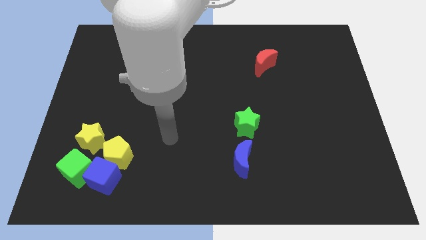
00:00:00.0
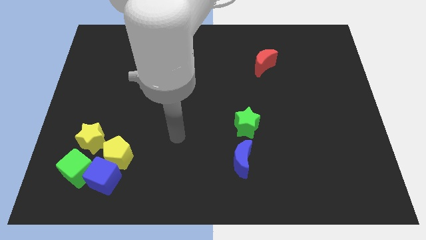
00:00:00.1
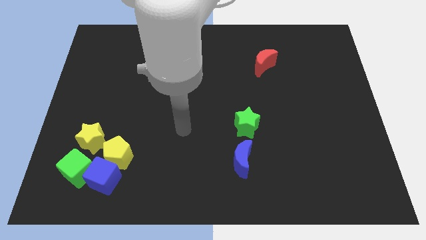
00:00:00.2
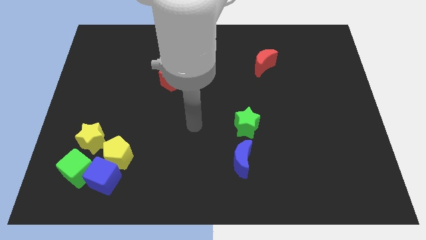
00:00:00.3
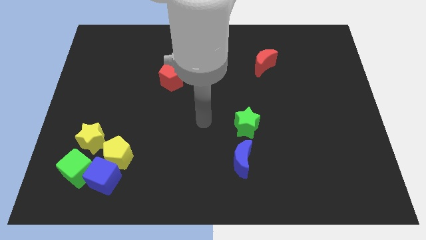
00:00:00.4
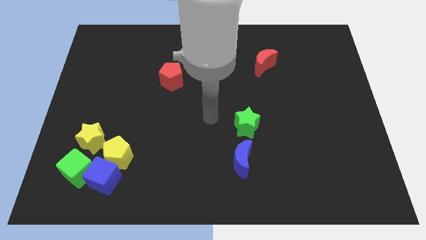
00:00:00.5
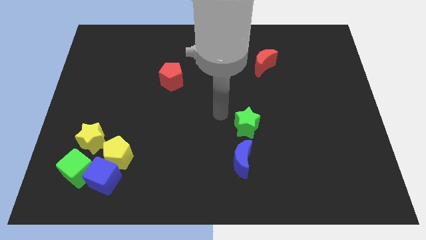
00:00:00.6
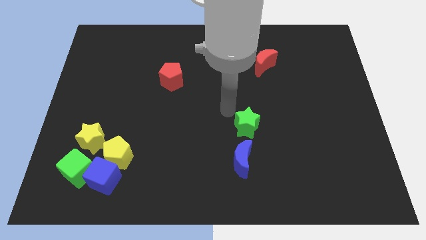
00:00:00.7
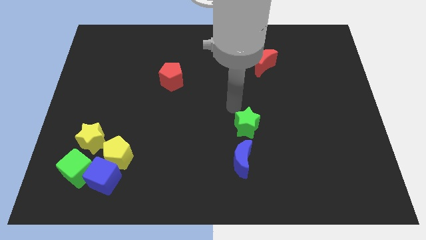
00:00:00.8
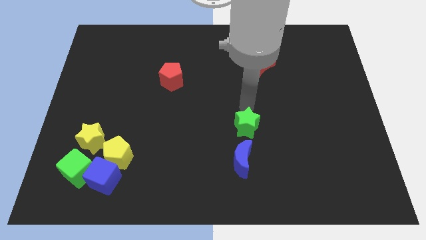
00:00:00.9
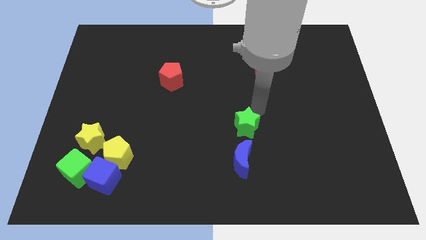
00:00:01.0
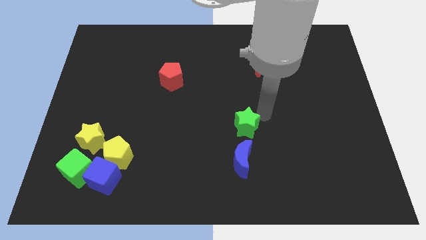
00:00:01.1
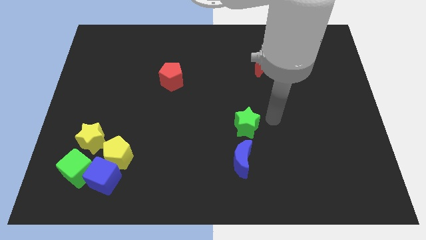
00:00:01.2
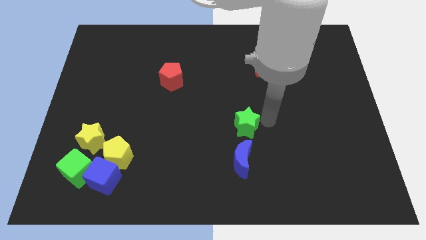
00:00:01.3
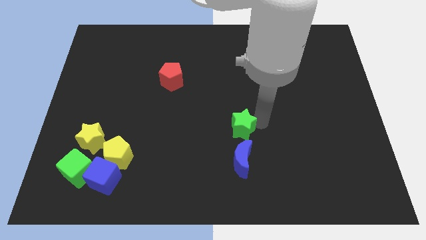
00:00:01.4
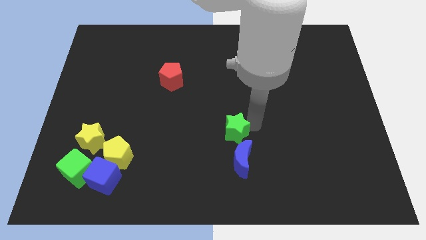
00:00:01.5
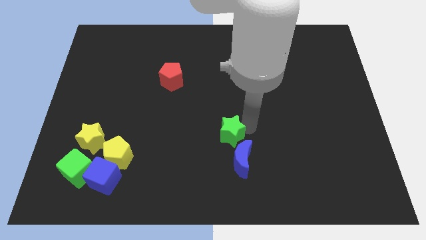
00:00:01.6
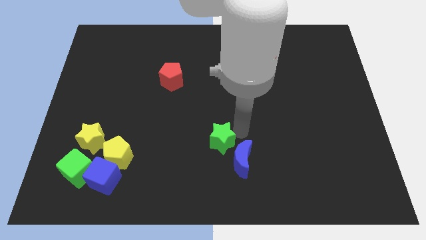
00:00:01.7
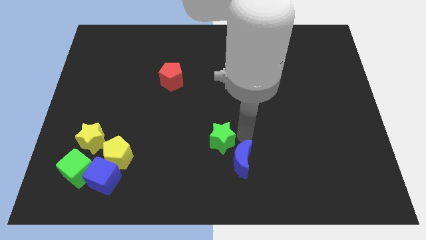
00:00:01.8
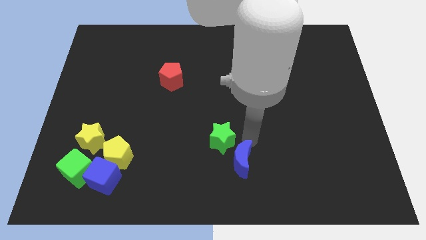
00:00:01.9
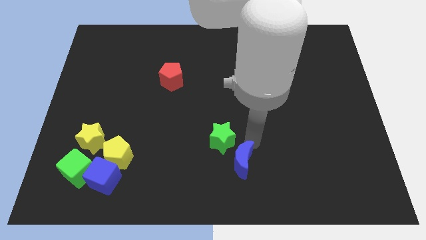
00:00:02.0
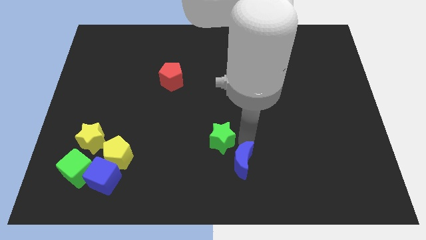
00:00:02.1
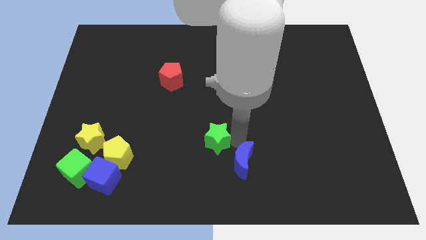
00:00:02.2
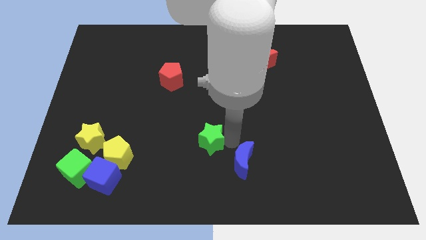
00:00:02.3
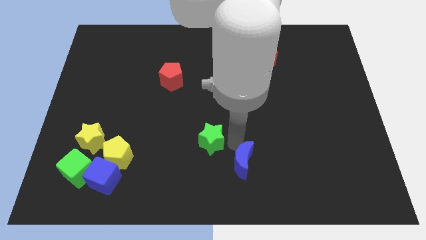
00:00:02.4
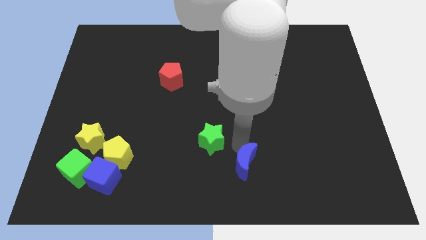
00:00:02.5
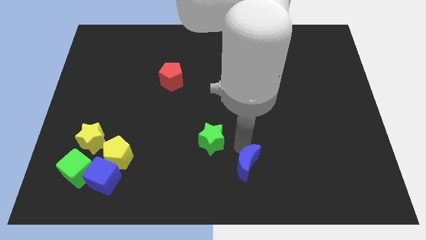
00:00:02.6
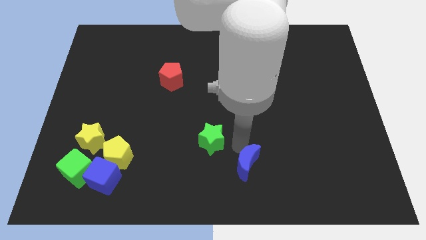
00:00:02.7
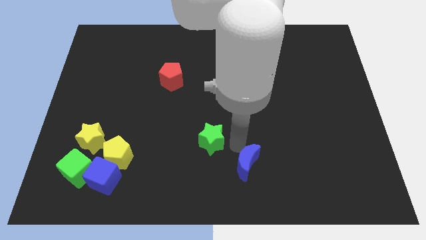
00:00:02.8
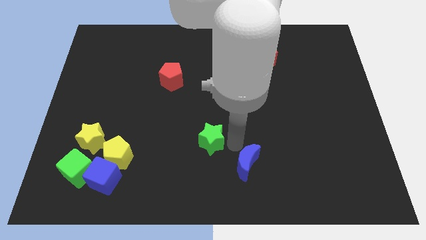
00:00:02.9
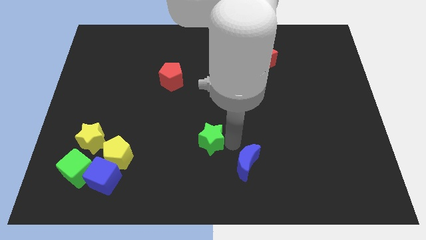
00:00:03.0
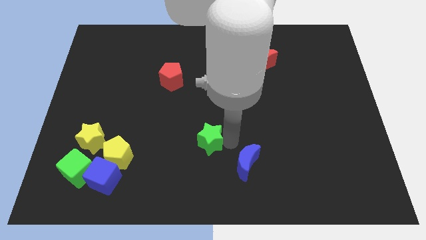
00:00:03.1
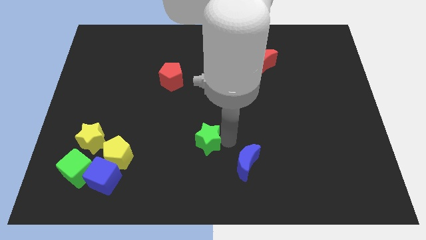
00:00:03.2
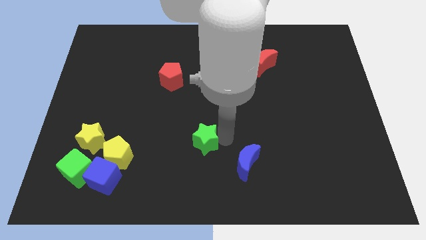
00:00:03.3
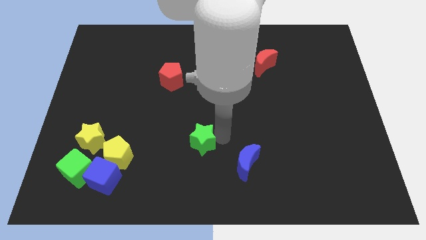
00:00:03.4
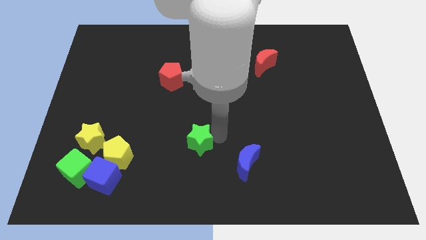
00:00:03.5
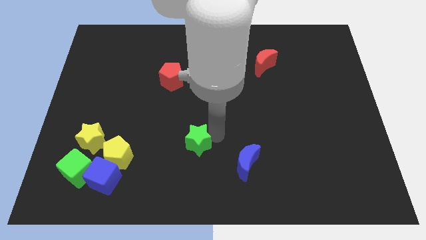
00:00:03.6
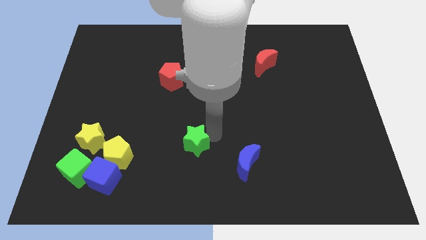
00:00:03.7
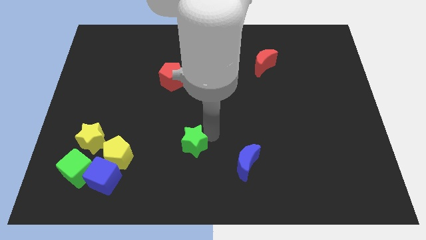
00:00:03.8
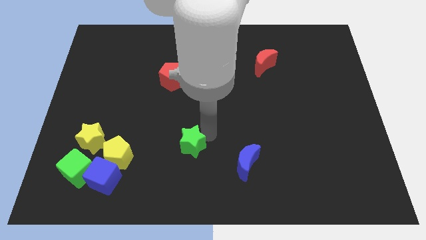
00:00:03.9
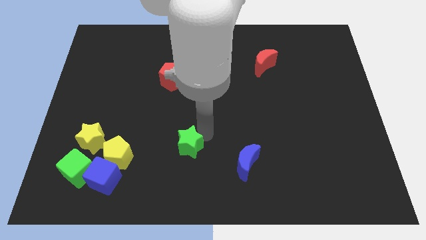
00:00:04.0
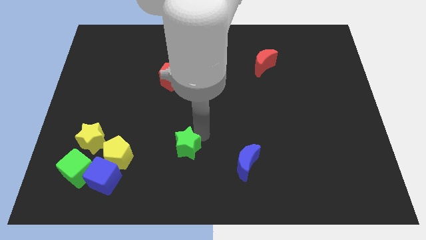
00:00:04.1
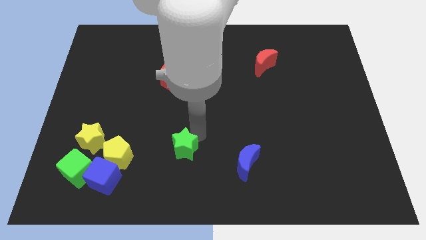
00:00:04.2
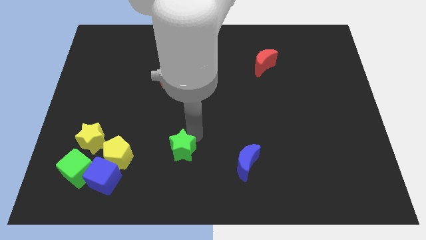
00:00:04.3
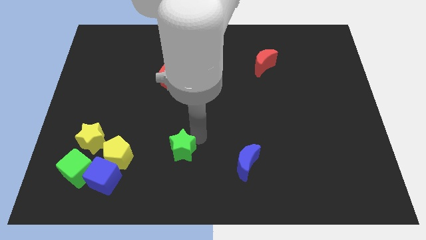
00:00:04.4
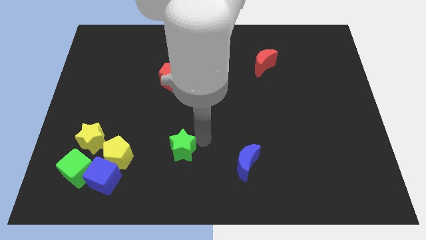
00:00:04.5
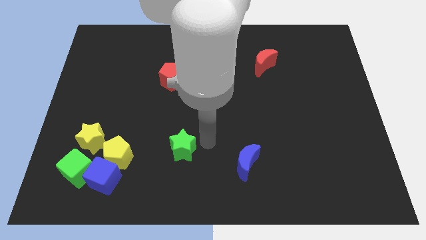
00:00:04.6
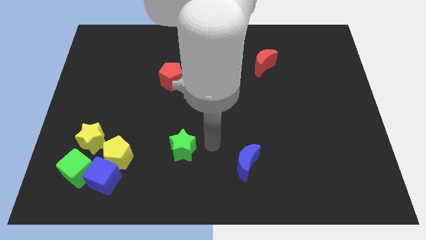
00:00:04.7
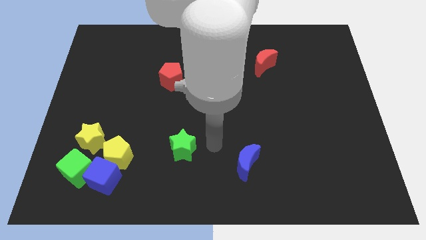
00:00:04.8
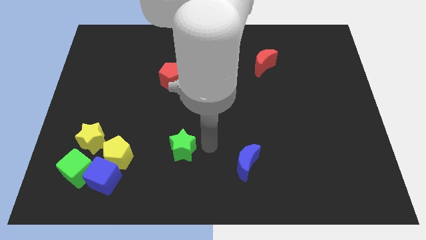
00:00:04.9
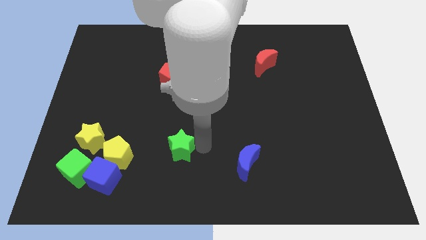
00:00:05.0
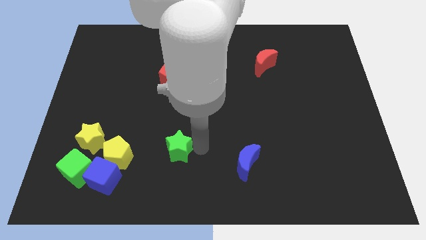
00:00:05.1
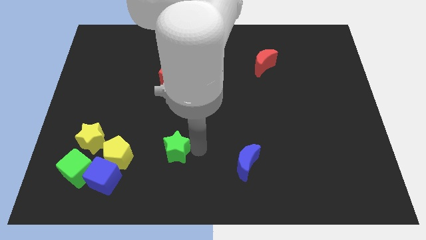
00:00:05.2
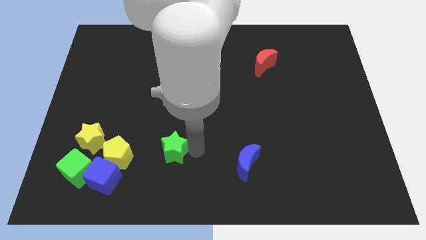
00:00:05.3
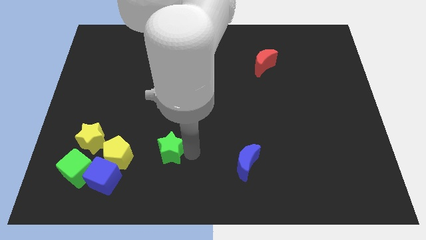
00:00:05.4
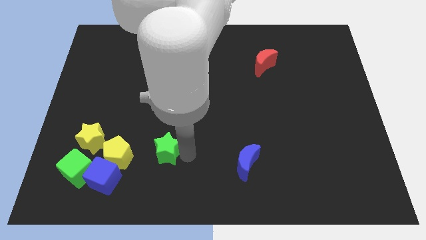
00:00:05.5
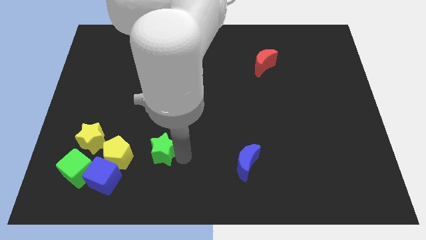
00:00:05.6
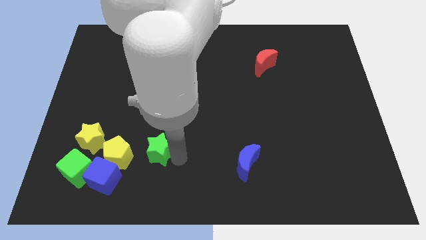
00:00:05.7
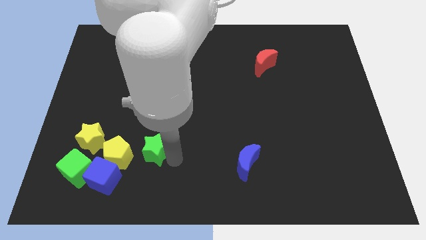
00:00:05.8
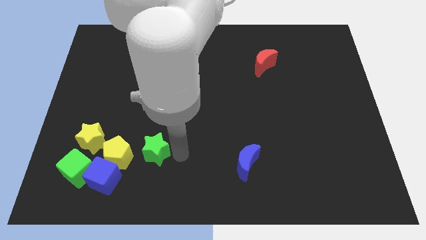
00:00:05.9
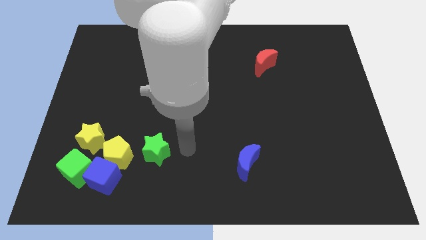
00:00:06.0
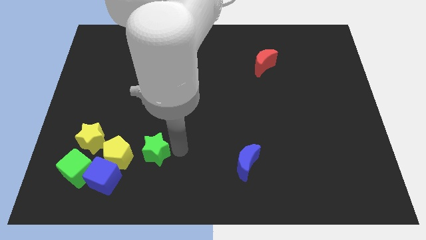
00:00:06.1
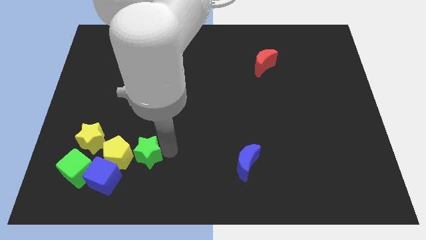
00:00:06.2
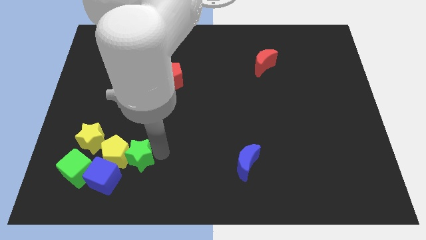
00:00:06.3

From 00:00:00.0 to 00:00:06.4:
move the green star towards the yellow pentagon

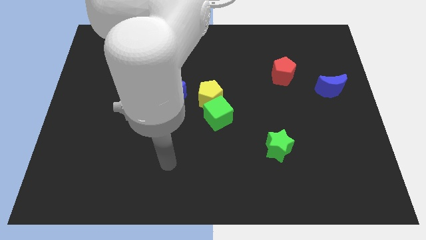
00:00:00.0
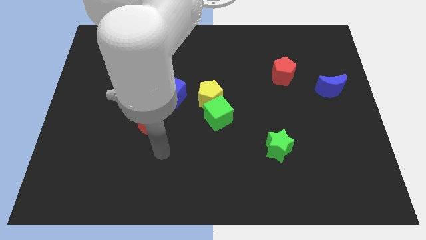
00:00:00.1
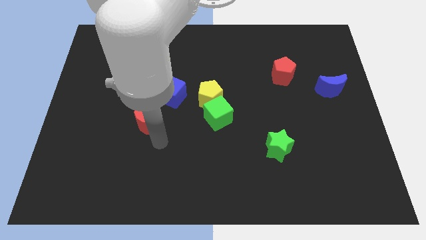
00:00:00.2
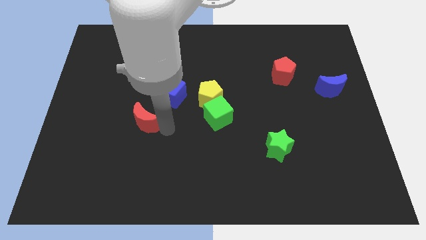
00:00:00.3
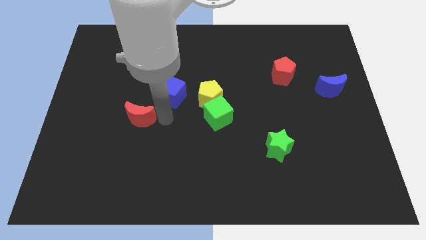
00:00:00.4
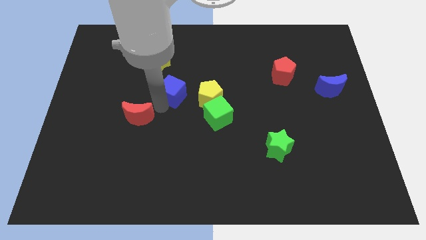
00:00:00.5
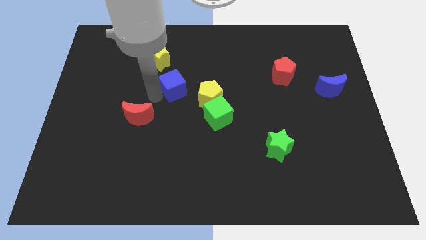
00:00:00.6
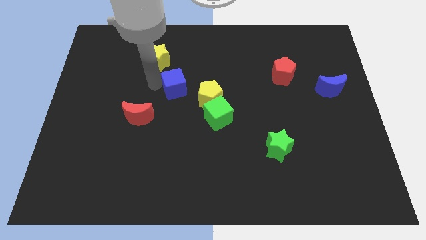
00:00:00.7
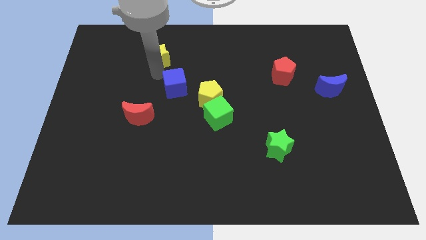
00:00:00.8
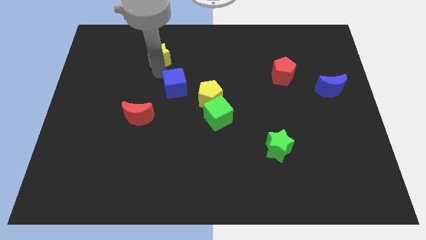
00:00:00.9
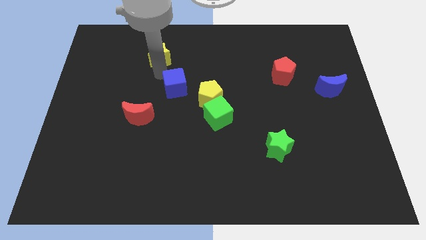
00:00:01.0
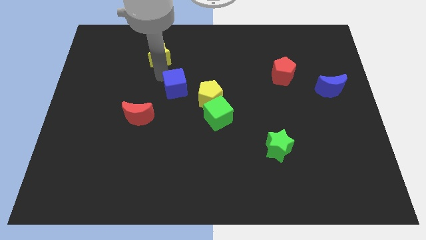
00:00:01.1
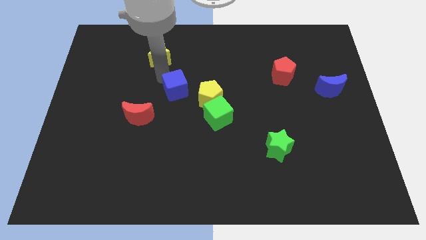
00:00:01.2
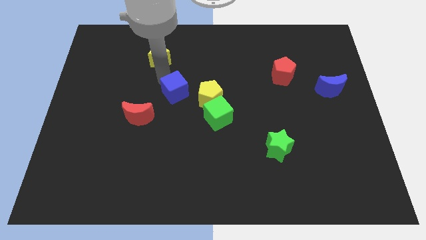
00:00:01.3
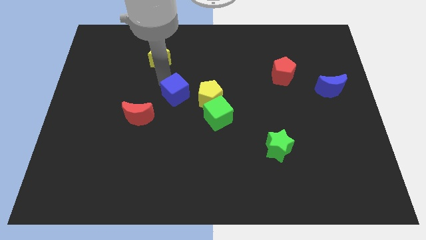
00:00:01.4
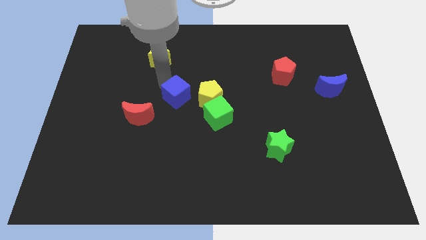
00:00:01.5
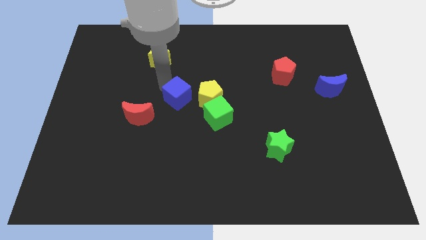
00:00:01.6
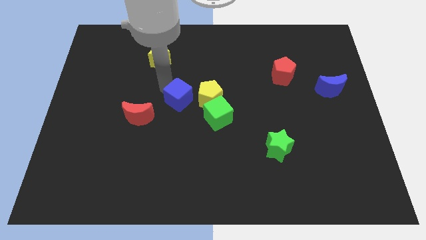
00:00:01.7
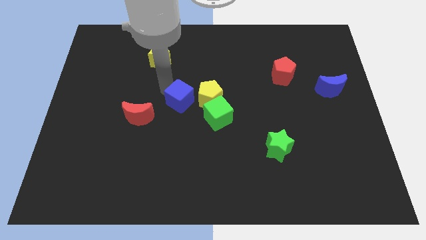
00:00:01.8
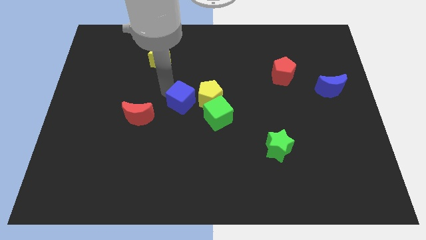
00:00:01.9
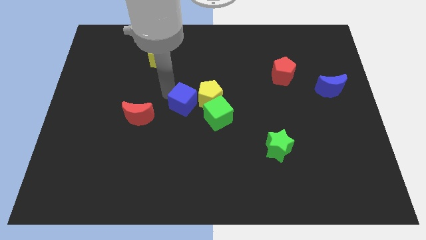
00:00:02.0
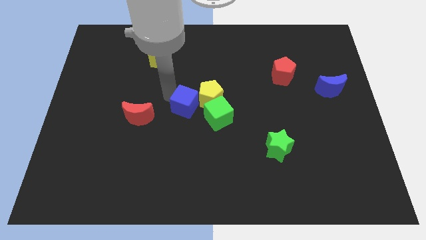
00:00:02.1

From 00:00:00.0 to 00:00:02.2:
move the blue cube to the yellow pentagon
